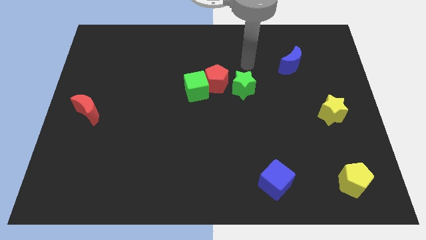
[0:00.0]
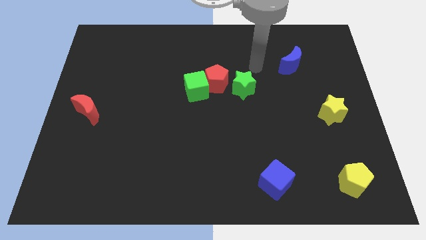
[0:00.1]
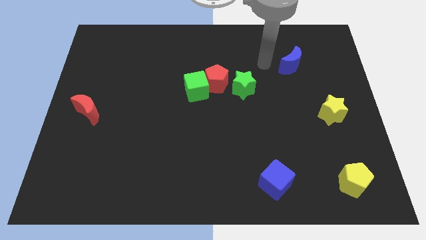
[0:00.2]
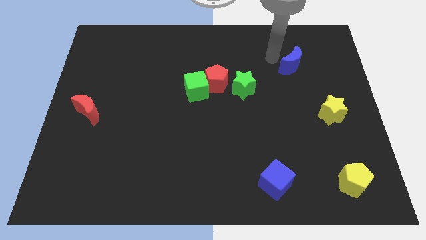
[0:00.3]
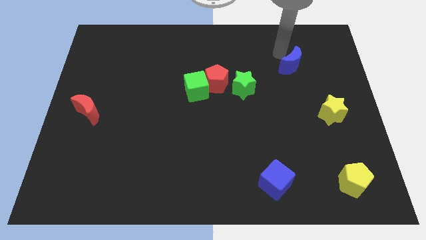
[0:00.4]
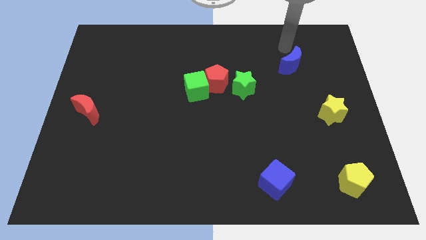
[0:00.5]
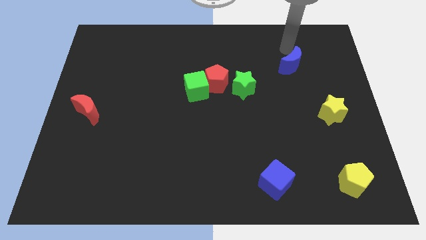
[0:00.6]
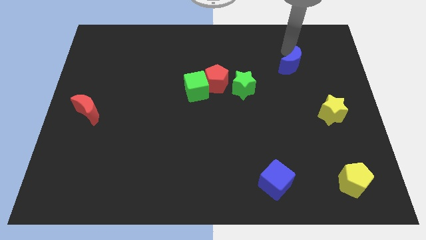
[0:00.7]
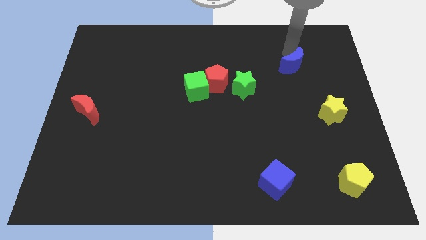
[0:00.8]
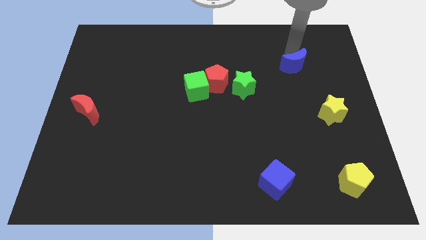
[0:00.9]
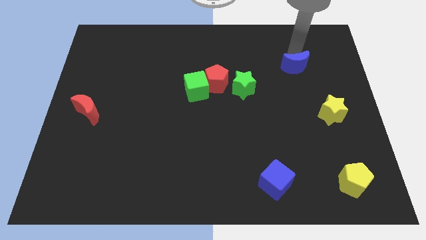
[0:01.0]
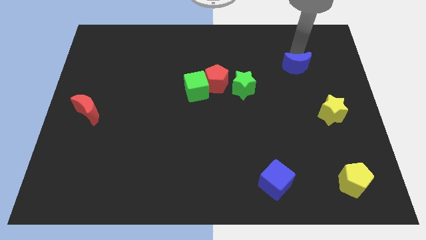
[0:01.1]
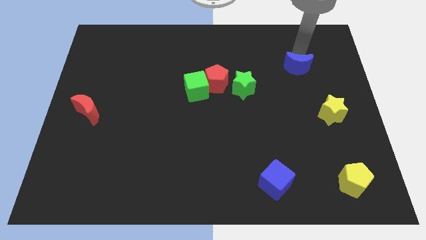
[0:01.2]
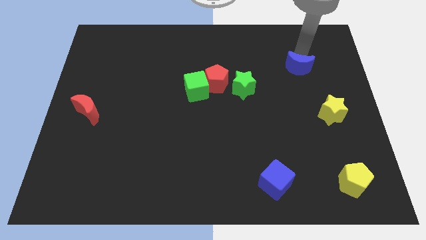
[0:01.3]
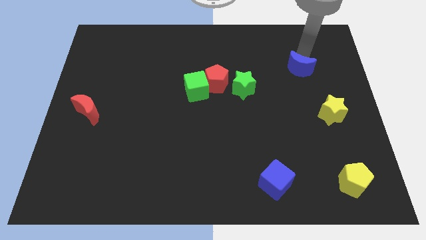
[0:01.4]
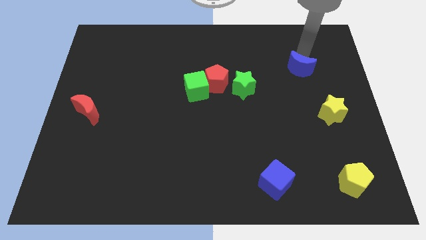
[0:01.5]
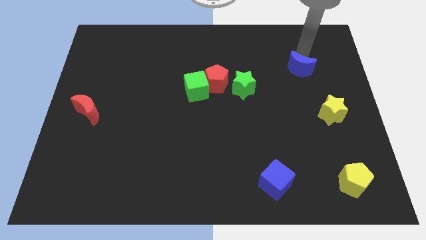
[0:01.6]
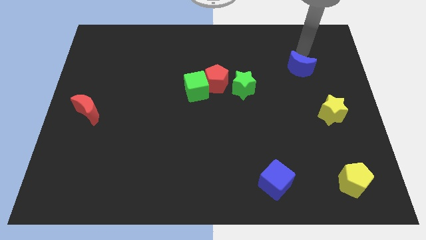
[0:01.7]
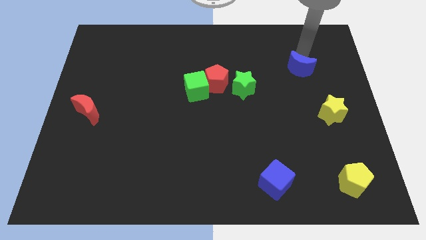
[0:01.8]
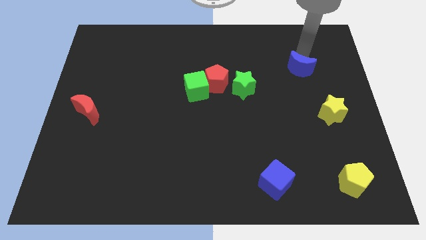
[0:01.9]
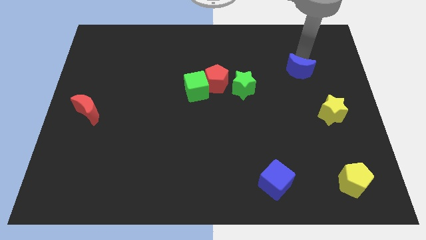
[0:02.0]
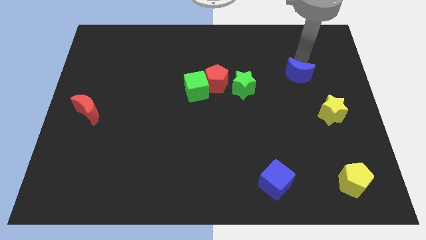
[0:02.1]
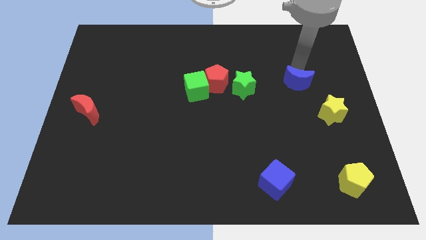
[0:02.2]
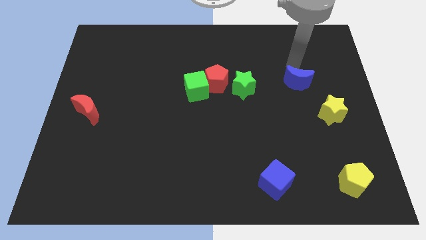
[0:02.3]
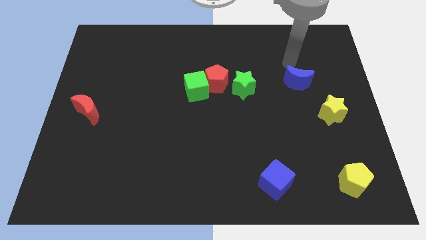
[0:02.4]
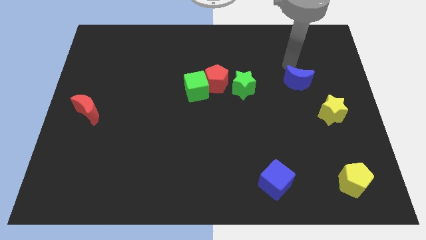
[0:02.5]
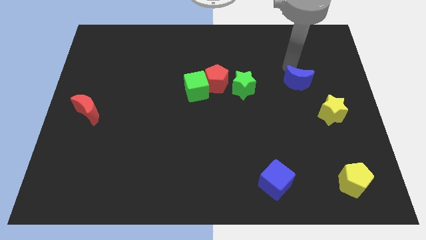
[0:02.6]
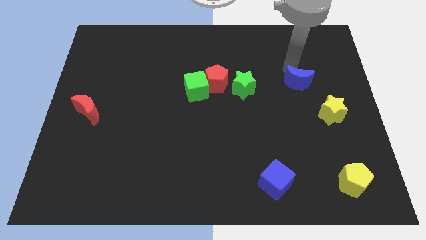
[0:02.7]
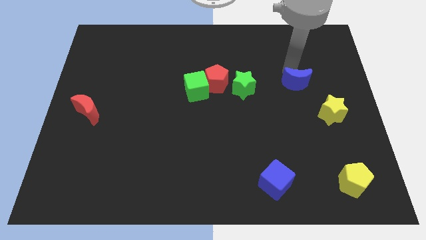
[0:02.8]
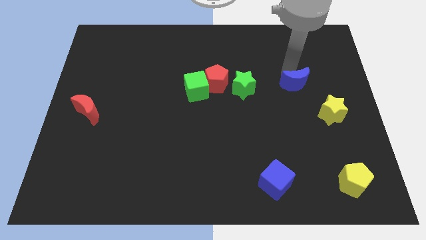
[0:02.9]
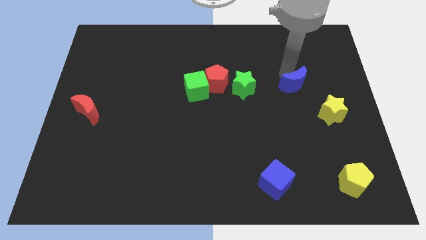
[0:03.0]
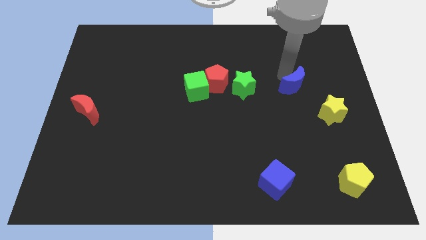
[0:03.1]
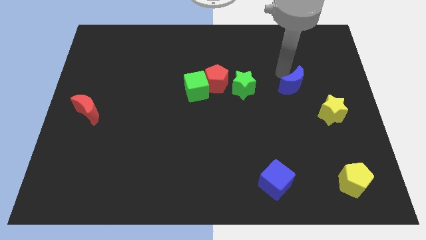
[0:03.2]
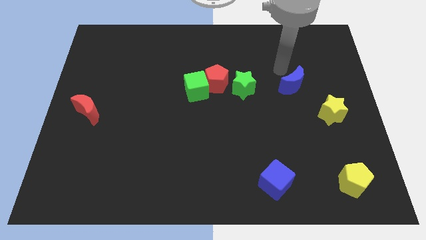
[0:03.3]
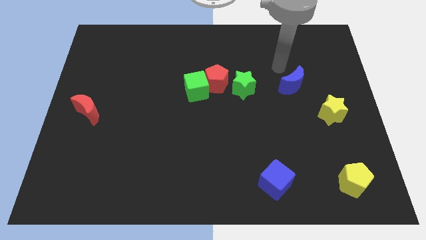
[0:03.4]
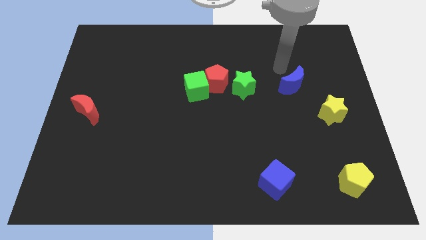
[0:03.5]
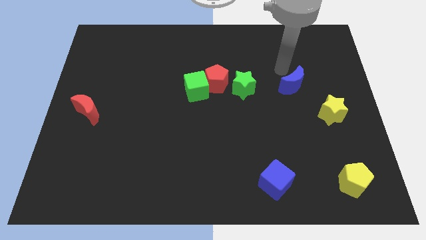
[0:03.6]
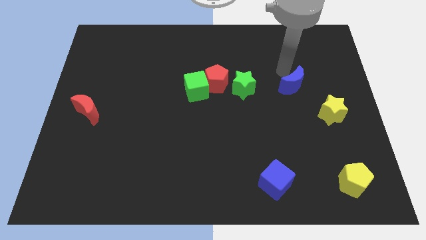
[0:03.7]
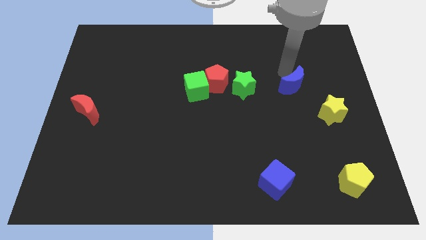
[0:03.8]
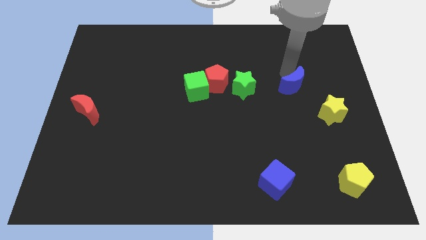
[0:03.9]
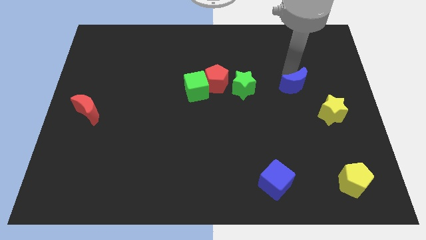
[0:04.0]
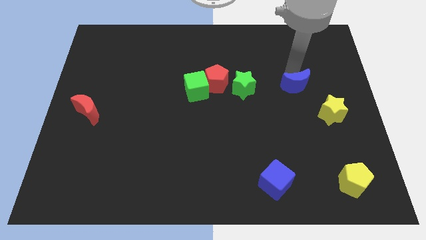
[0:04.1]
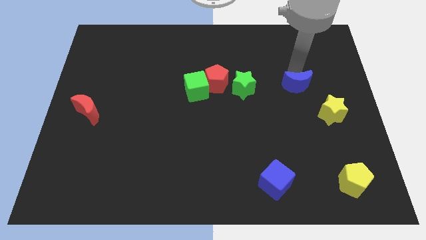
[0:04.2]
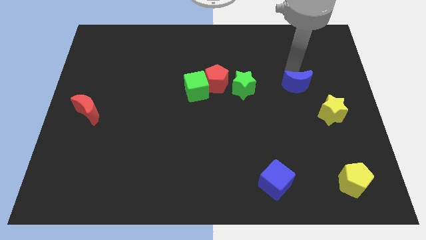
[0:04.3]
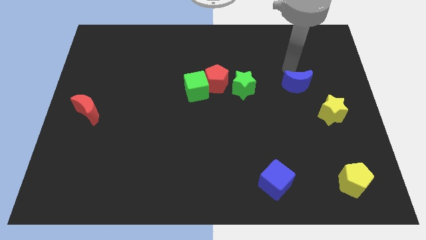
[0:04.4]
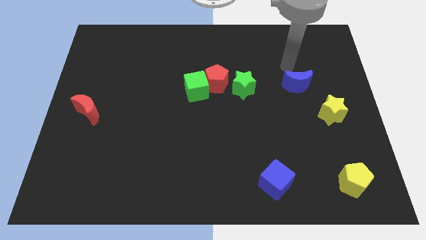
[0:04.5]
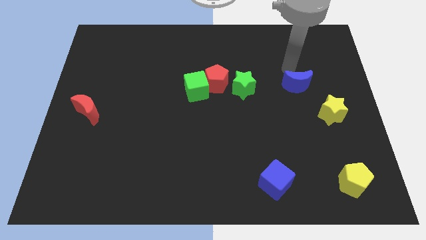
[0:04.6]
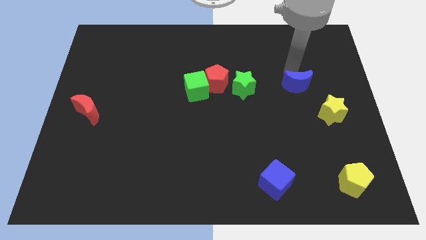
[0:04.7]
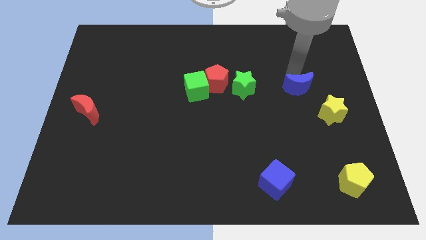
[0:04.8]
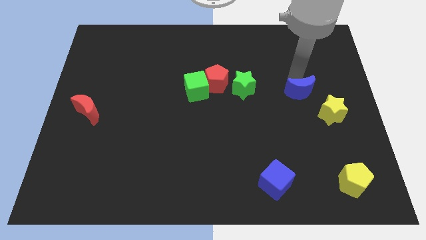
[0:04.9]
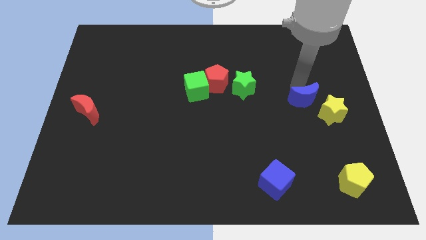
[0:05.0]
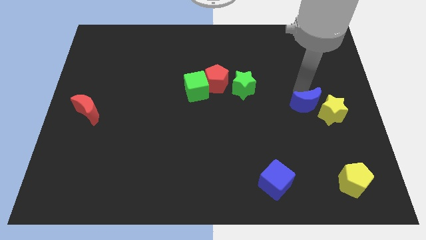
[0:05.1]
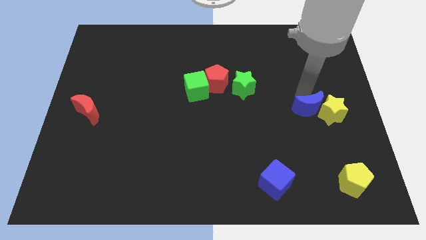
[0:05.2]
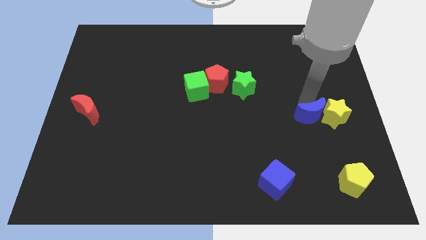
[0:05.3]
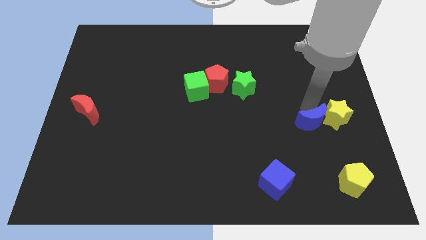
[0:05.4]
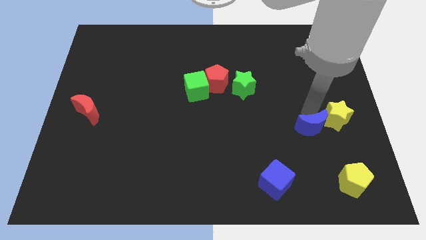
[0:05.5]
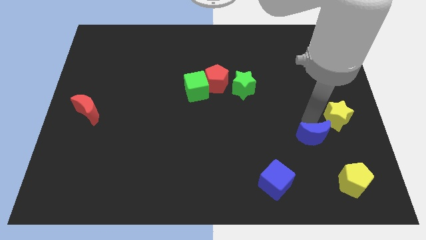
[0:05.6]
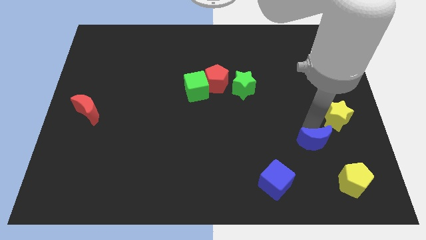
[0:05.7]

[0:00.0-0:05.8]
move the blue moon diagonally up and to the left of the yellow pentagon
